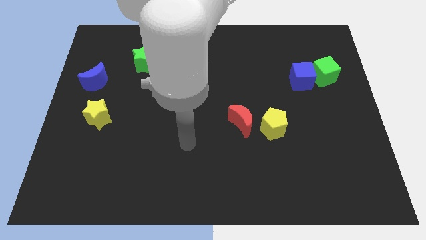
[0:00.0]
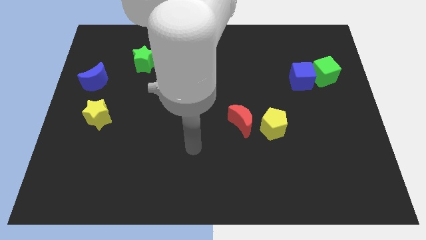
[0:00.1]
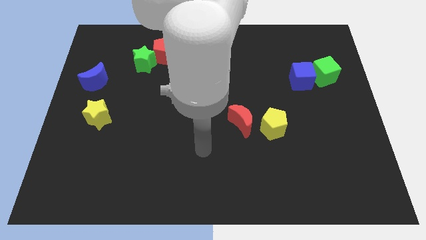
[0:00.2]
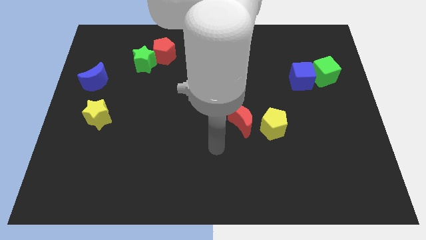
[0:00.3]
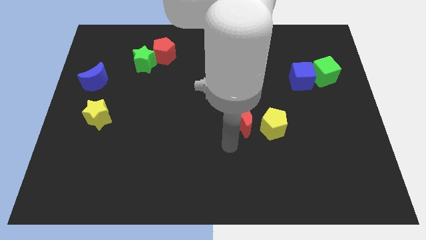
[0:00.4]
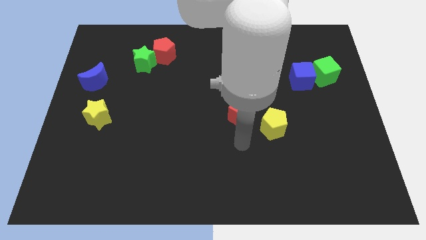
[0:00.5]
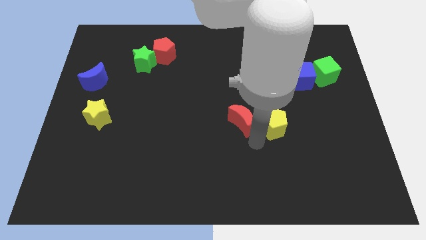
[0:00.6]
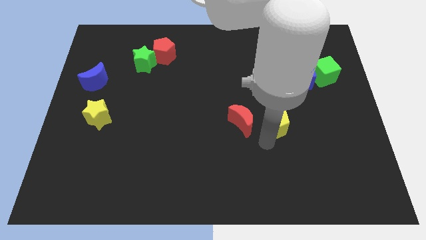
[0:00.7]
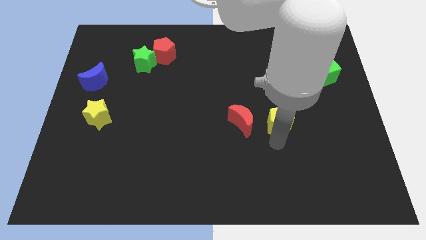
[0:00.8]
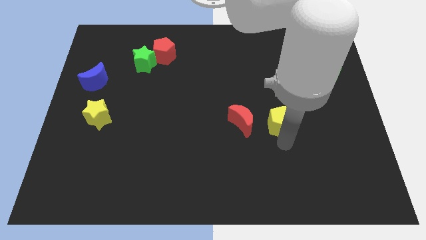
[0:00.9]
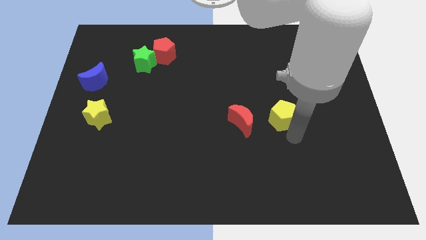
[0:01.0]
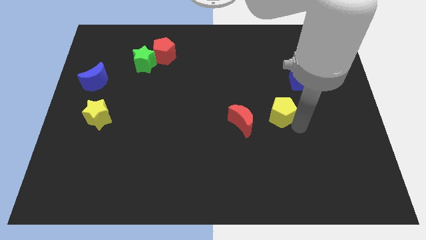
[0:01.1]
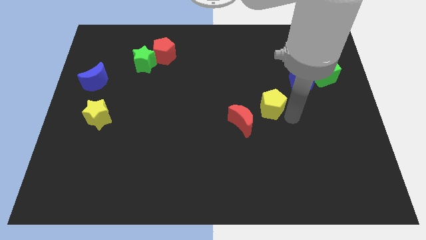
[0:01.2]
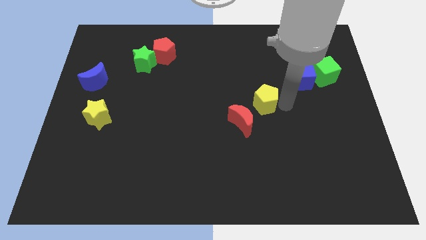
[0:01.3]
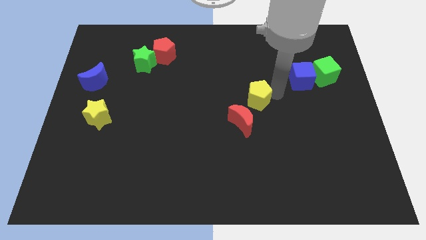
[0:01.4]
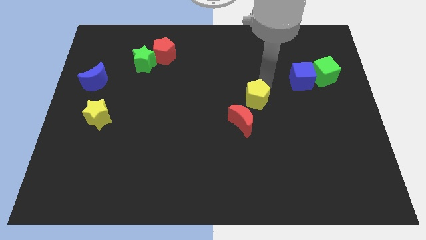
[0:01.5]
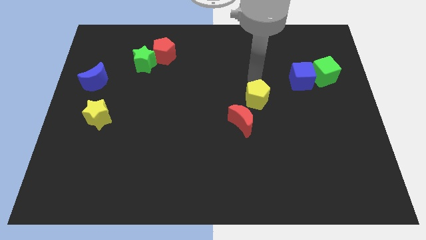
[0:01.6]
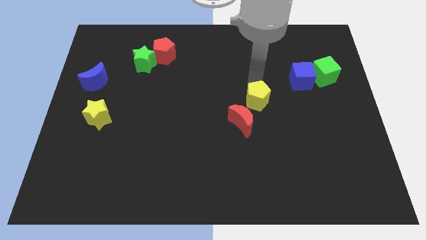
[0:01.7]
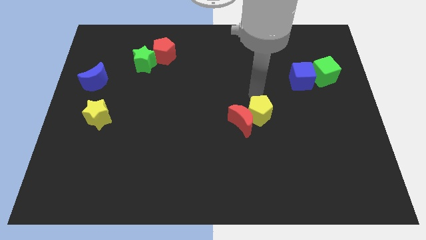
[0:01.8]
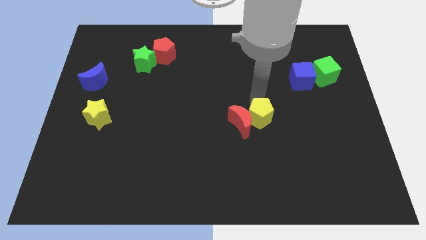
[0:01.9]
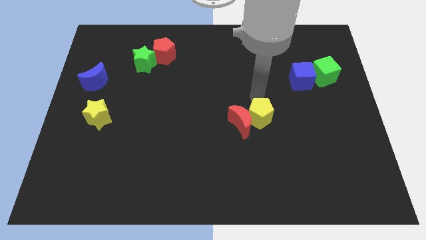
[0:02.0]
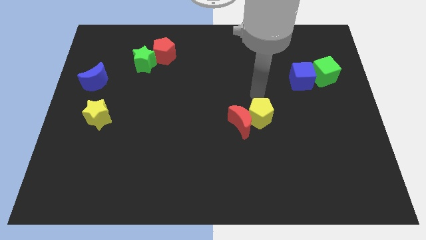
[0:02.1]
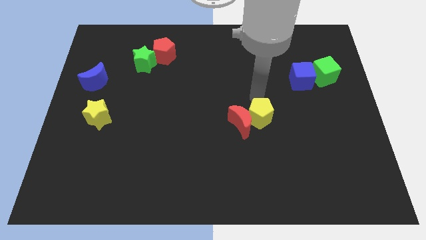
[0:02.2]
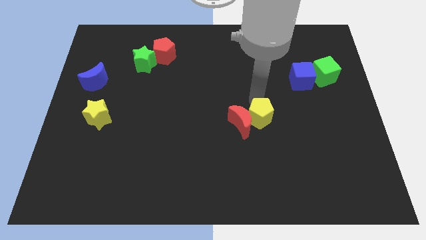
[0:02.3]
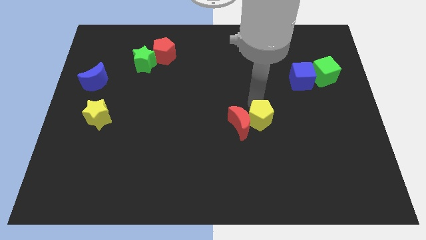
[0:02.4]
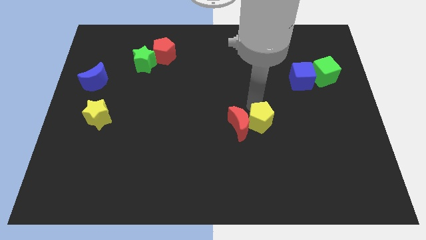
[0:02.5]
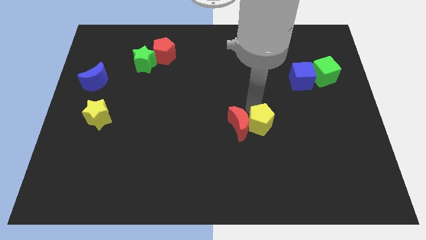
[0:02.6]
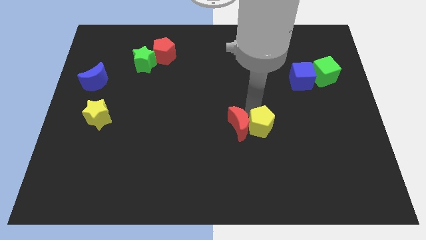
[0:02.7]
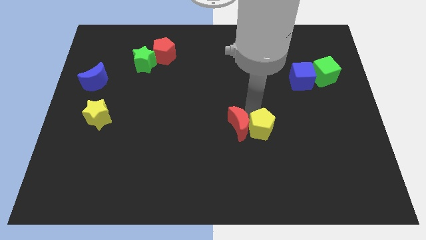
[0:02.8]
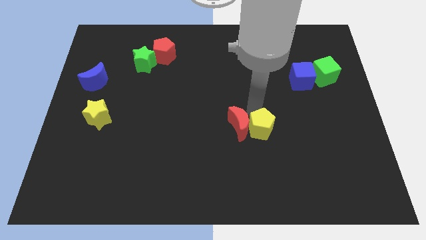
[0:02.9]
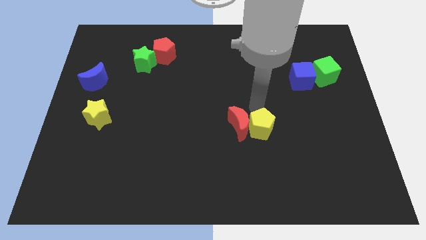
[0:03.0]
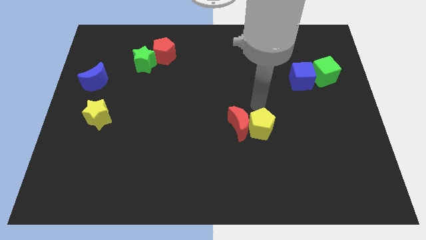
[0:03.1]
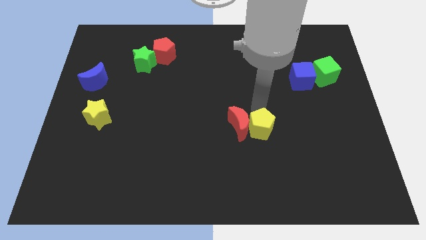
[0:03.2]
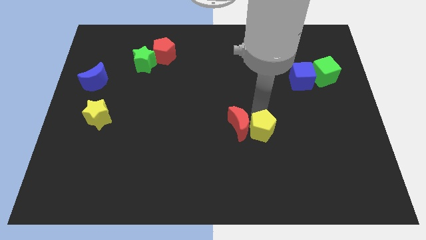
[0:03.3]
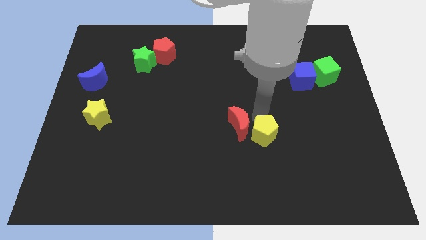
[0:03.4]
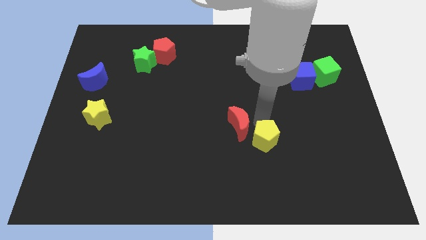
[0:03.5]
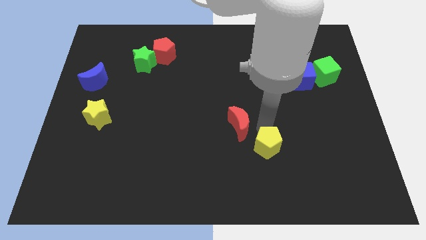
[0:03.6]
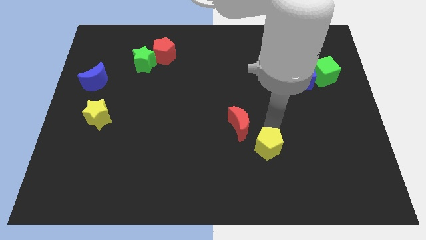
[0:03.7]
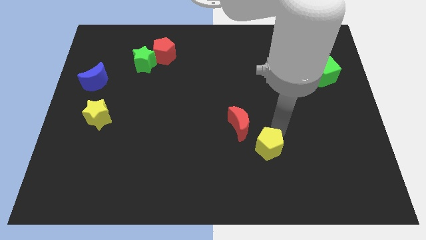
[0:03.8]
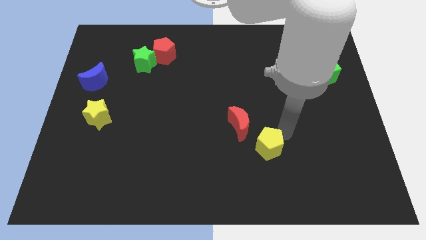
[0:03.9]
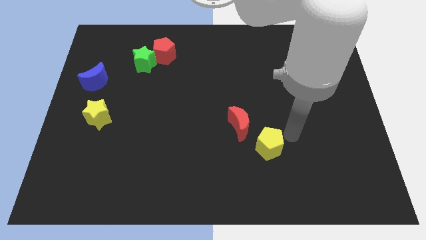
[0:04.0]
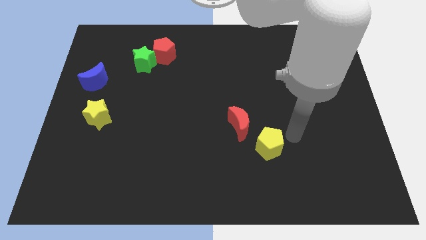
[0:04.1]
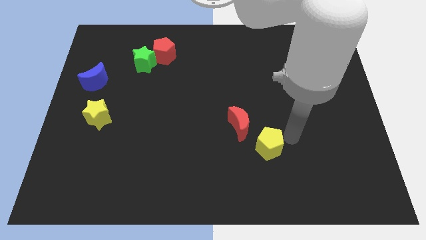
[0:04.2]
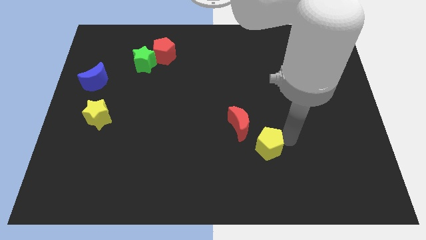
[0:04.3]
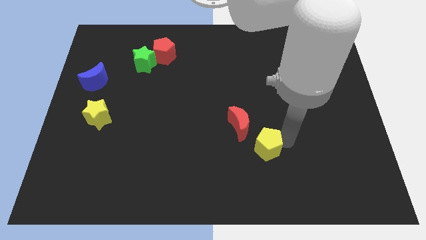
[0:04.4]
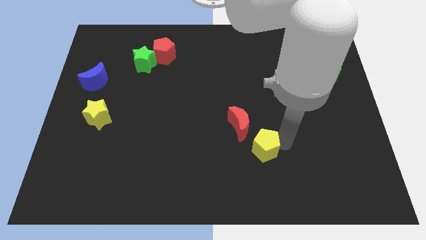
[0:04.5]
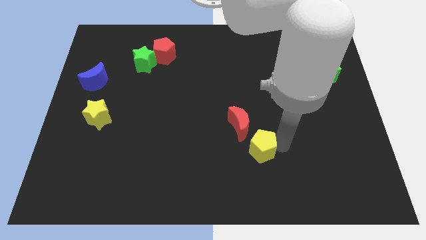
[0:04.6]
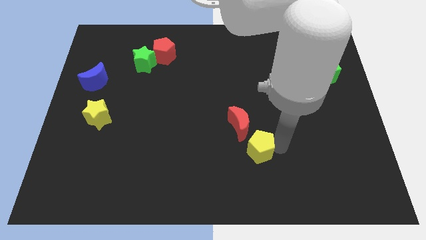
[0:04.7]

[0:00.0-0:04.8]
slide the yellow pentagon diagonally down and to the left somewhat

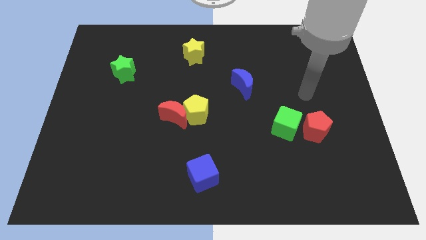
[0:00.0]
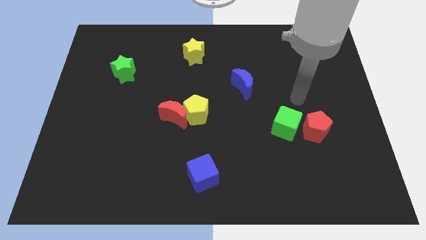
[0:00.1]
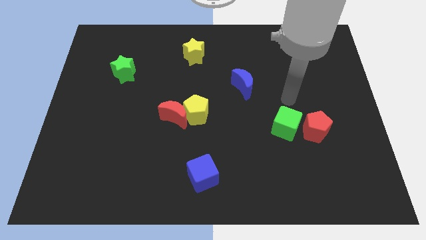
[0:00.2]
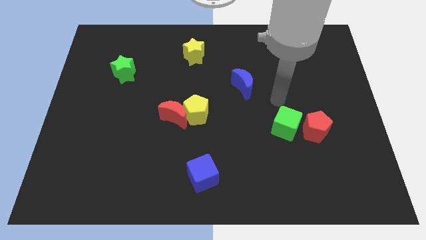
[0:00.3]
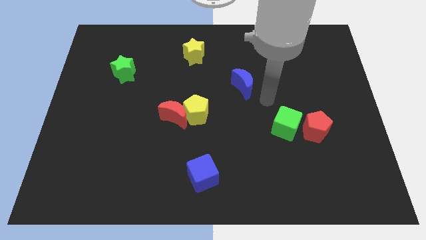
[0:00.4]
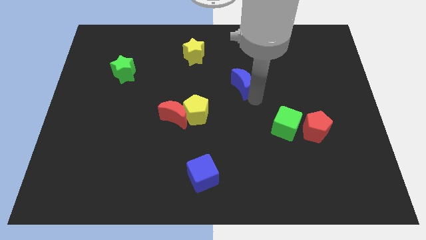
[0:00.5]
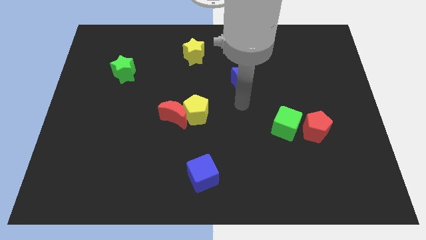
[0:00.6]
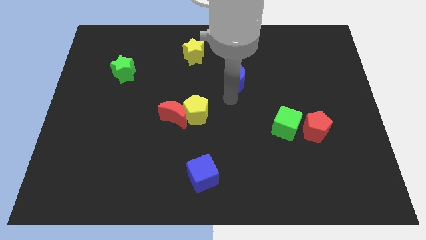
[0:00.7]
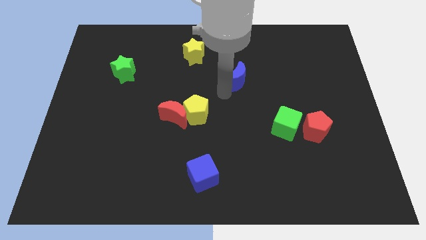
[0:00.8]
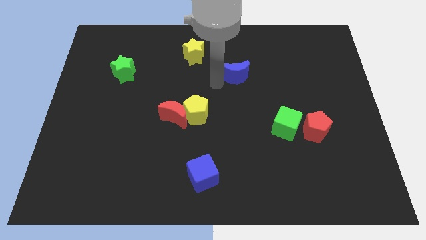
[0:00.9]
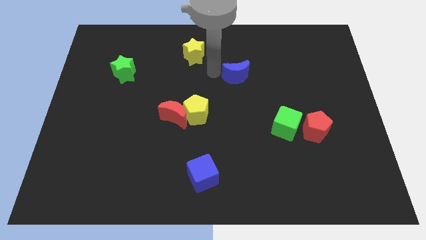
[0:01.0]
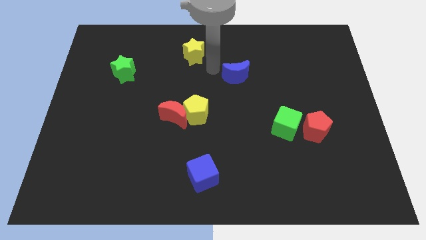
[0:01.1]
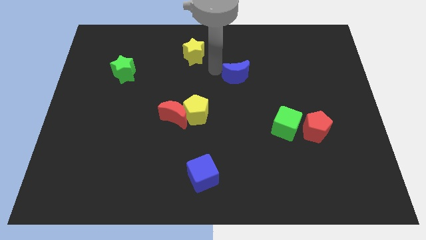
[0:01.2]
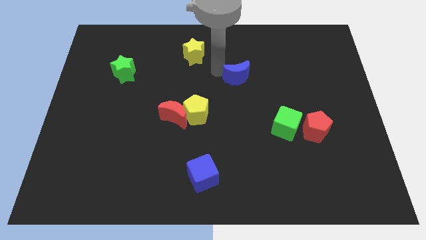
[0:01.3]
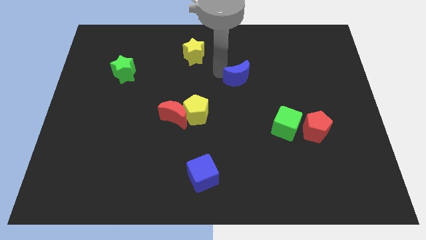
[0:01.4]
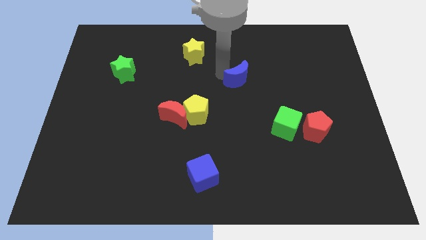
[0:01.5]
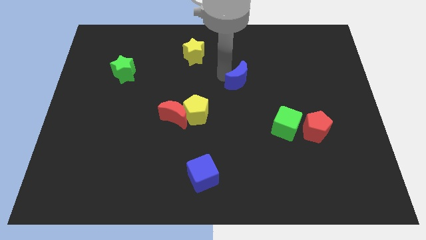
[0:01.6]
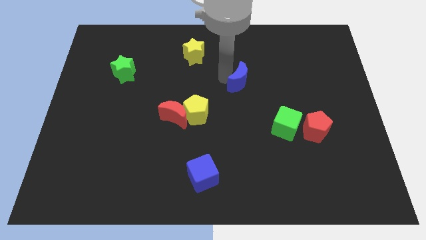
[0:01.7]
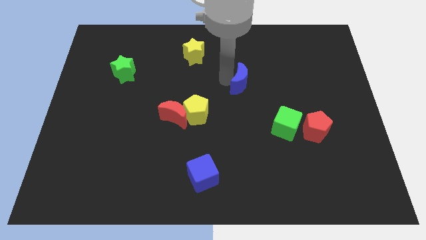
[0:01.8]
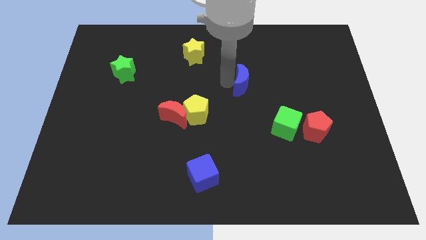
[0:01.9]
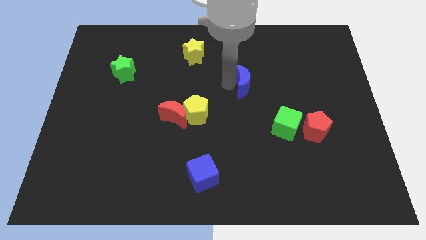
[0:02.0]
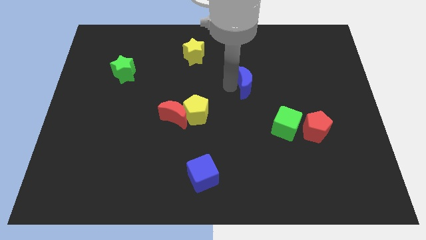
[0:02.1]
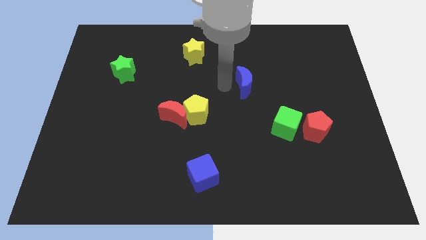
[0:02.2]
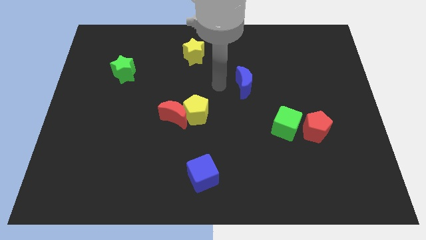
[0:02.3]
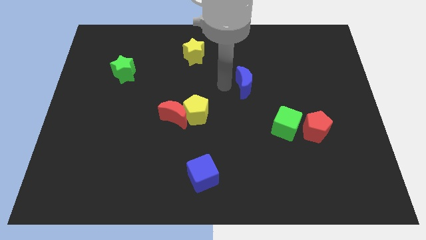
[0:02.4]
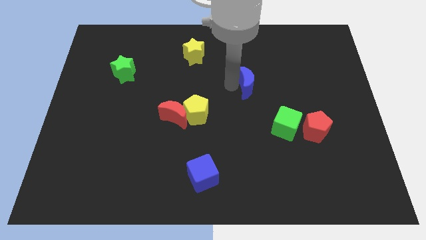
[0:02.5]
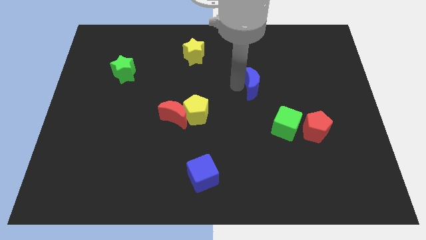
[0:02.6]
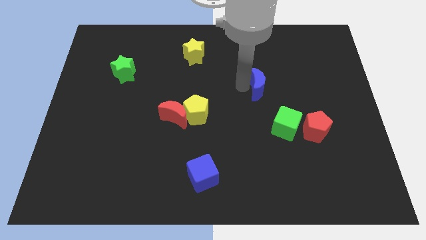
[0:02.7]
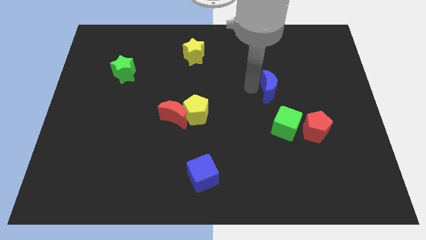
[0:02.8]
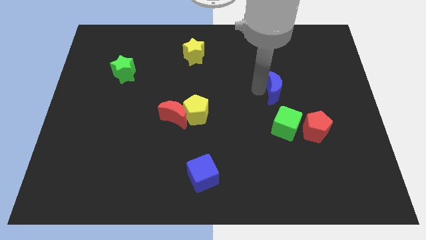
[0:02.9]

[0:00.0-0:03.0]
slightly slide the blue moon to the right
